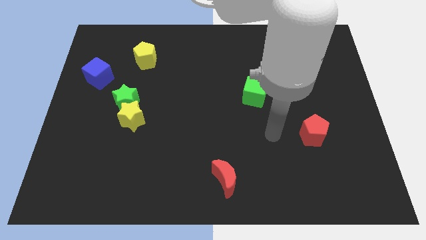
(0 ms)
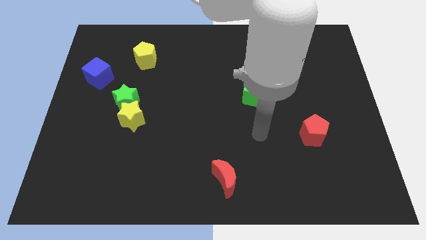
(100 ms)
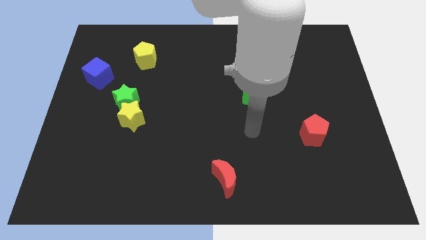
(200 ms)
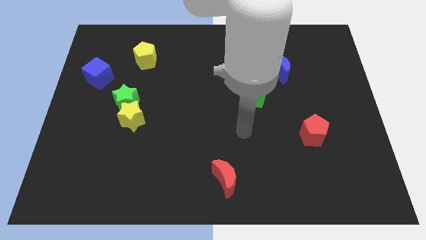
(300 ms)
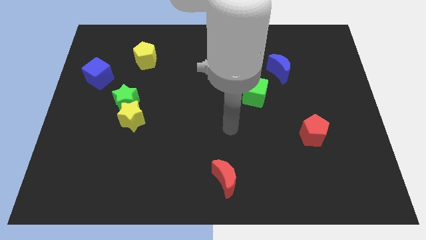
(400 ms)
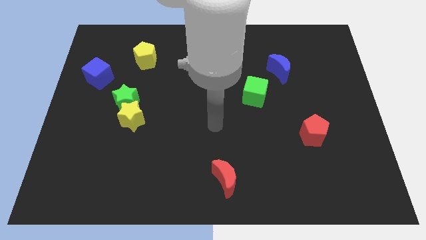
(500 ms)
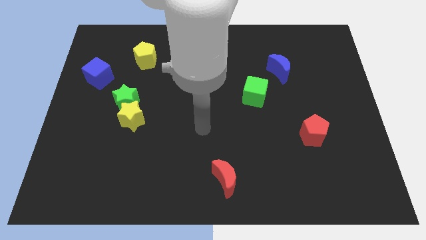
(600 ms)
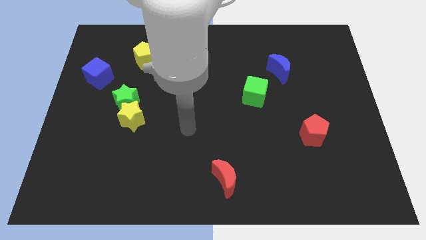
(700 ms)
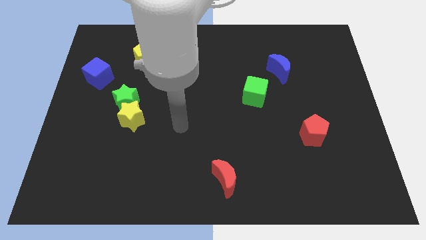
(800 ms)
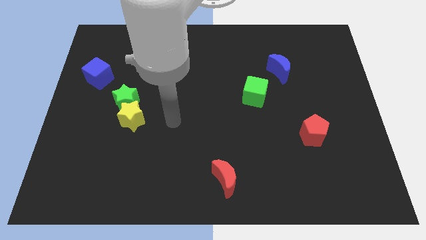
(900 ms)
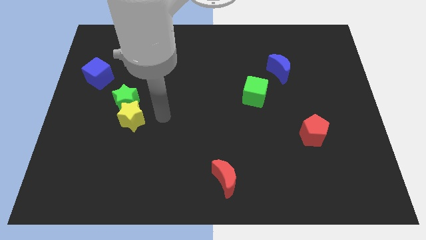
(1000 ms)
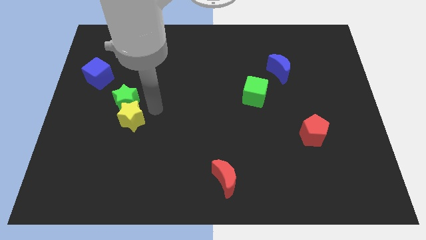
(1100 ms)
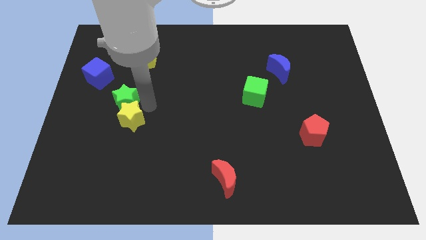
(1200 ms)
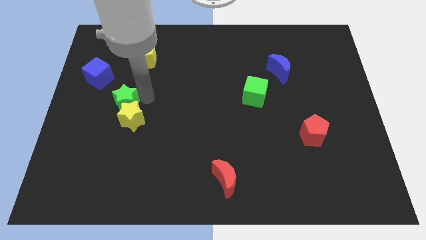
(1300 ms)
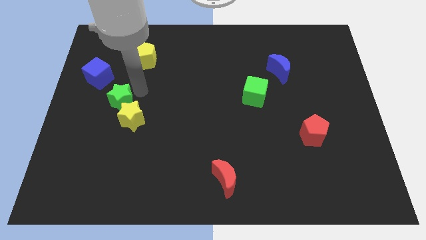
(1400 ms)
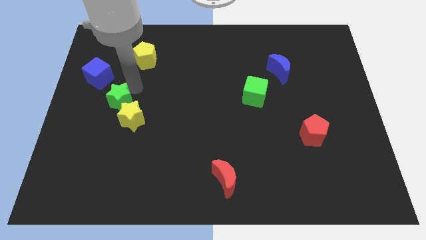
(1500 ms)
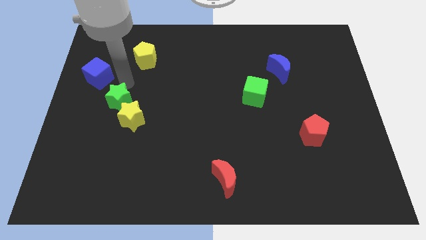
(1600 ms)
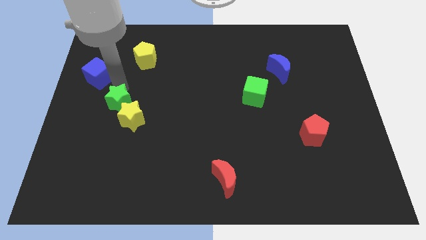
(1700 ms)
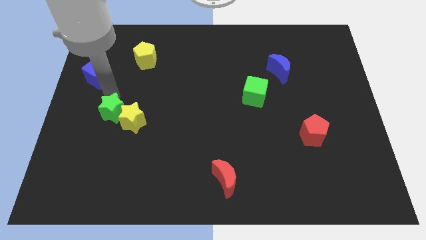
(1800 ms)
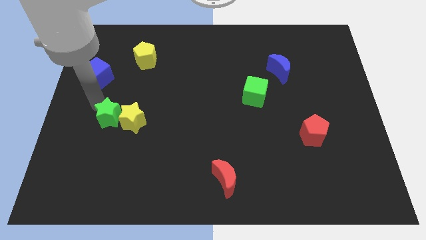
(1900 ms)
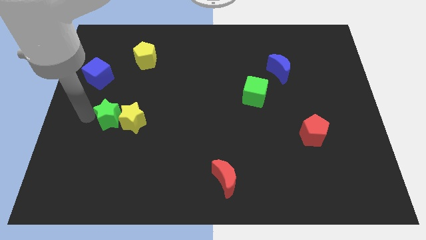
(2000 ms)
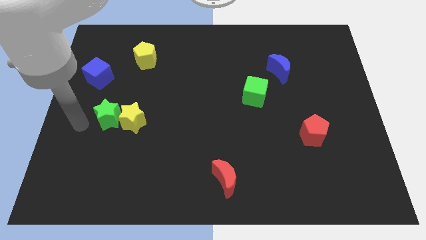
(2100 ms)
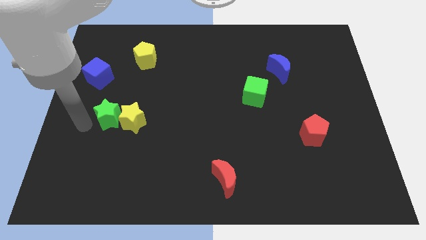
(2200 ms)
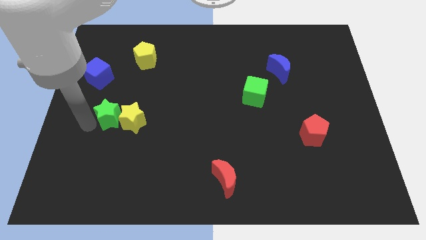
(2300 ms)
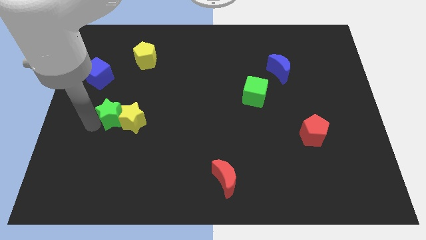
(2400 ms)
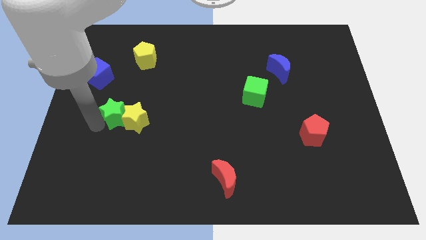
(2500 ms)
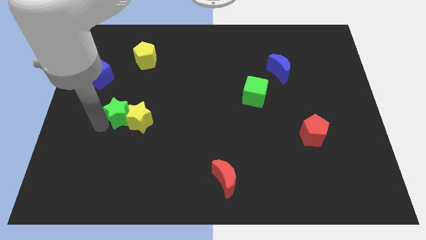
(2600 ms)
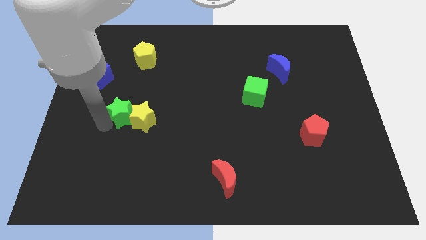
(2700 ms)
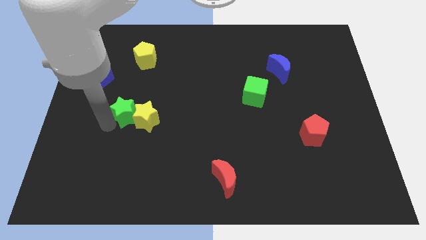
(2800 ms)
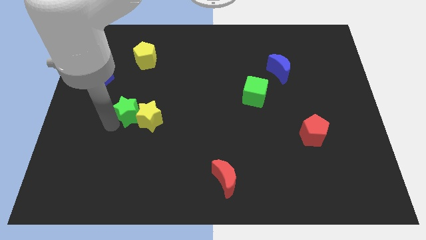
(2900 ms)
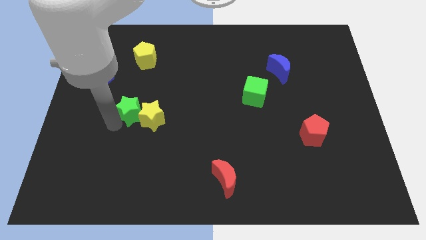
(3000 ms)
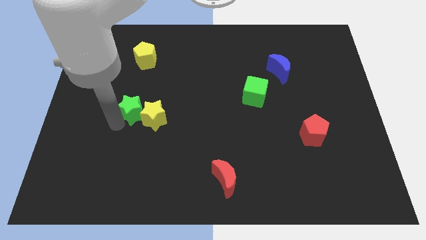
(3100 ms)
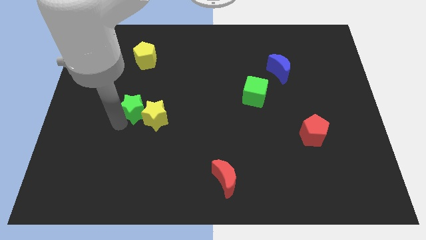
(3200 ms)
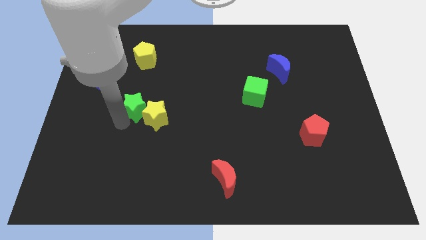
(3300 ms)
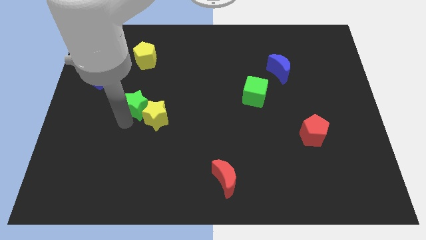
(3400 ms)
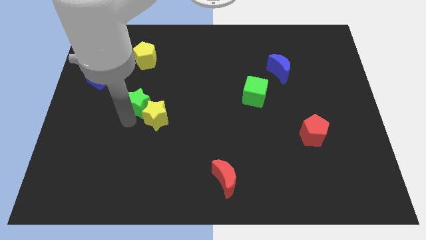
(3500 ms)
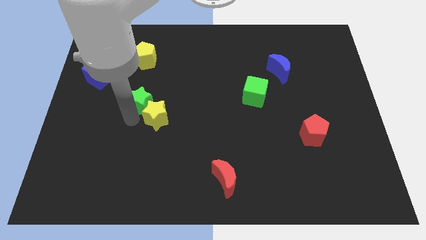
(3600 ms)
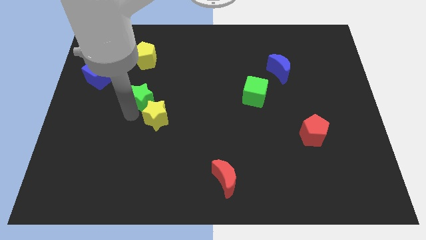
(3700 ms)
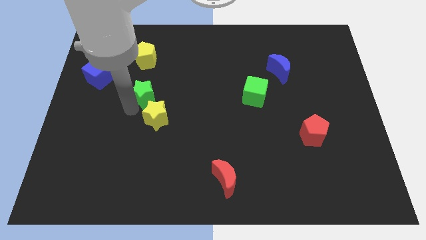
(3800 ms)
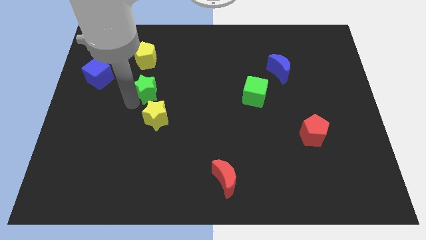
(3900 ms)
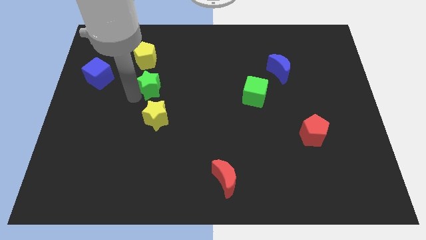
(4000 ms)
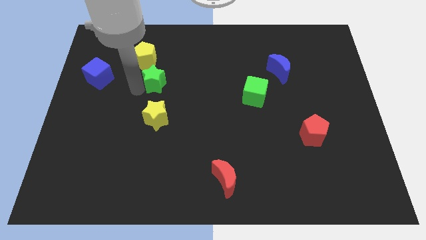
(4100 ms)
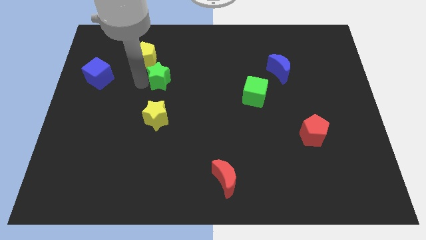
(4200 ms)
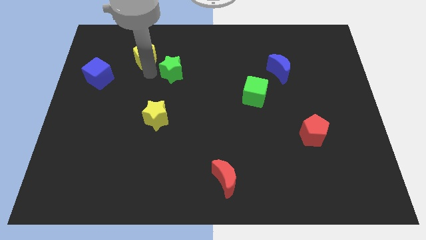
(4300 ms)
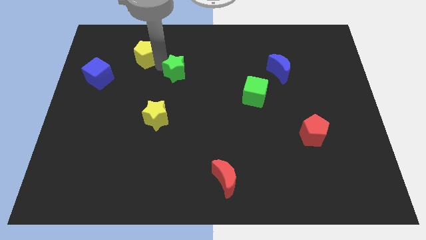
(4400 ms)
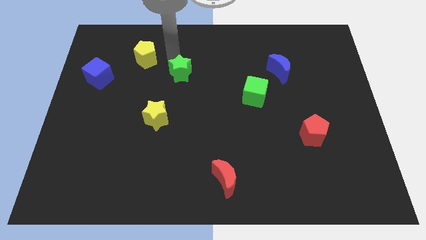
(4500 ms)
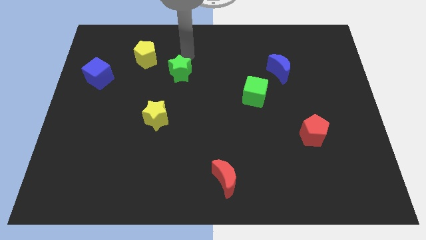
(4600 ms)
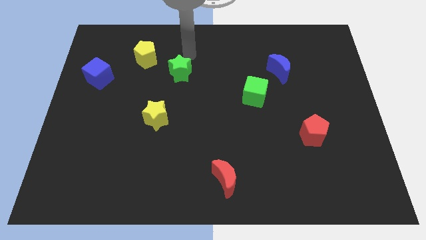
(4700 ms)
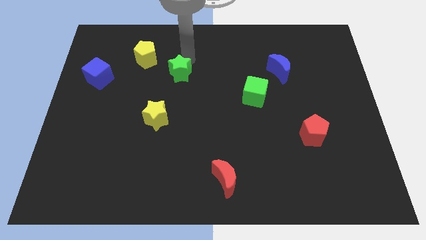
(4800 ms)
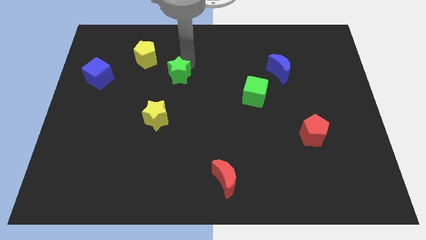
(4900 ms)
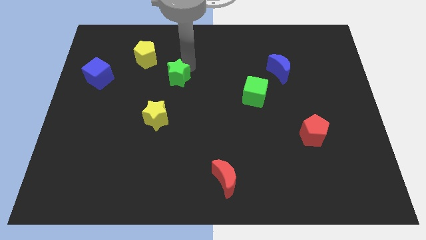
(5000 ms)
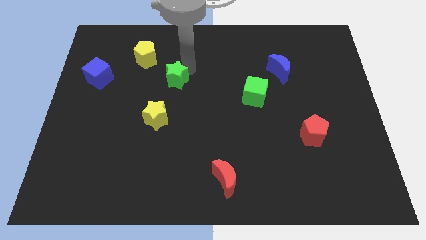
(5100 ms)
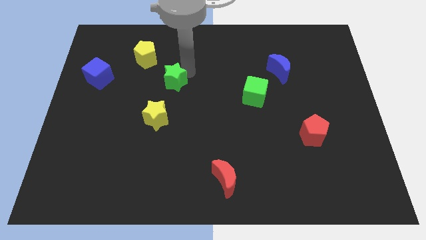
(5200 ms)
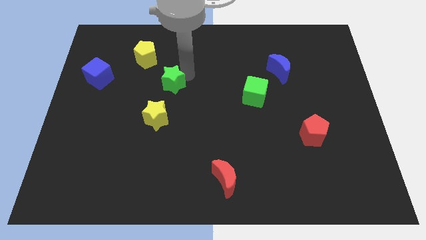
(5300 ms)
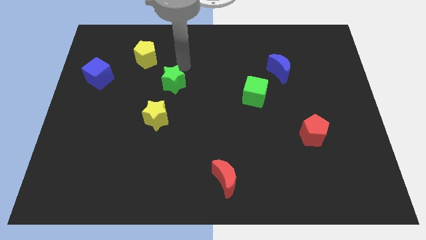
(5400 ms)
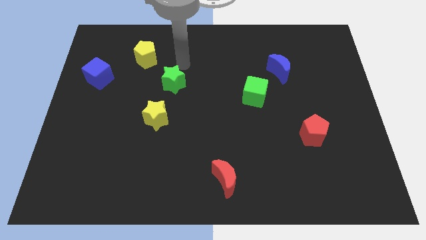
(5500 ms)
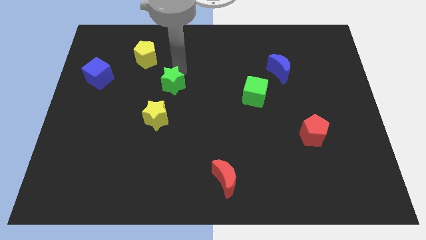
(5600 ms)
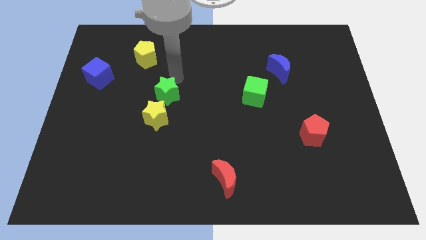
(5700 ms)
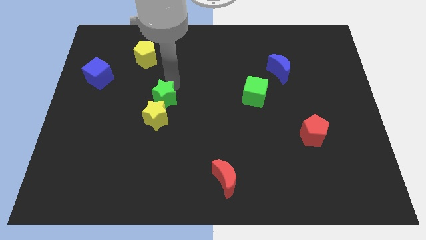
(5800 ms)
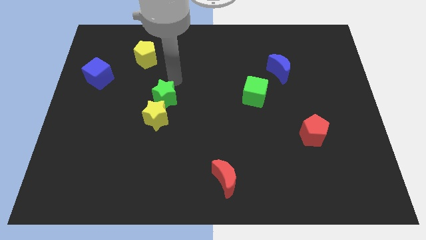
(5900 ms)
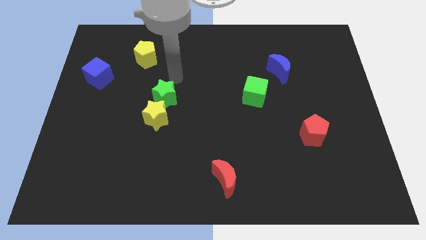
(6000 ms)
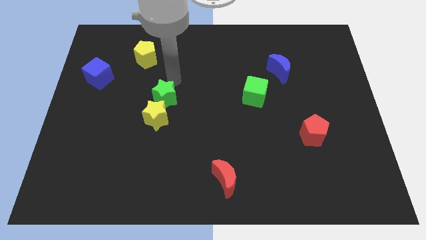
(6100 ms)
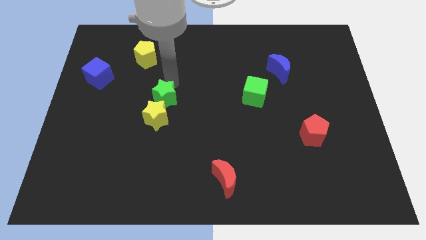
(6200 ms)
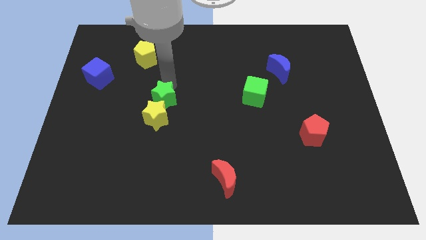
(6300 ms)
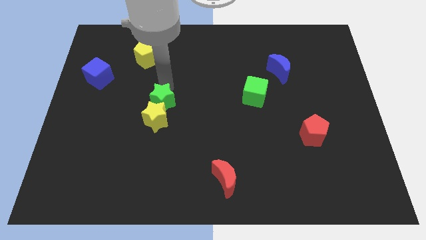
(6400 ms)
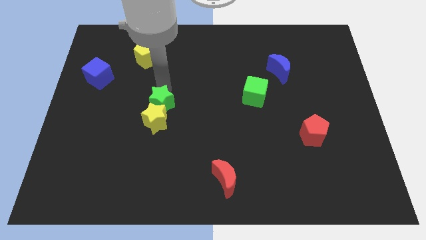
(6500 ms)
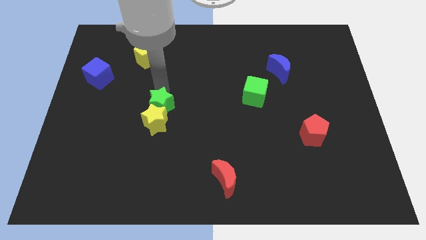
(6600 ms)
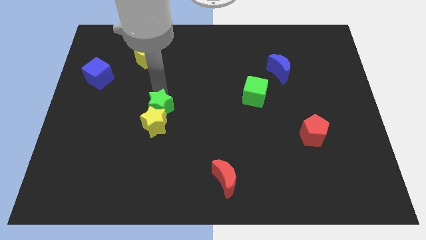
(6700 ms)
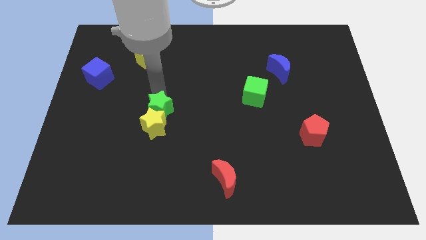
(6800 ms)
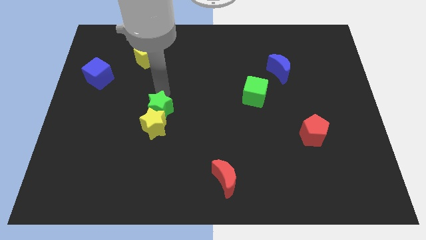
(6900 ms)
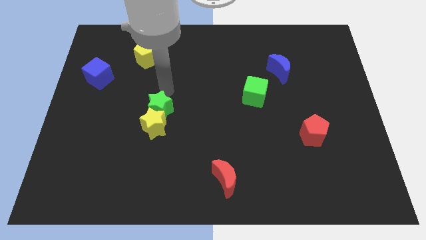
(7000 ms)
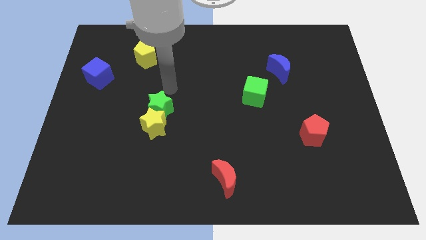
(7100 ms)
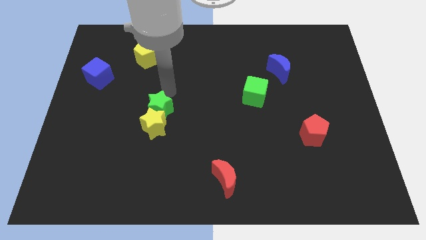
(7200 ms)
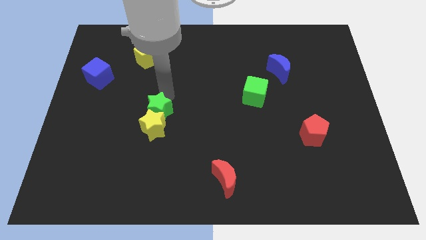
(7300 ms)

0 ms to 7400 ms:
move the green star a little downwards and to the right

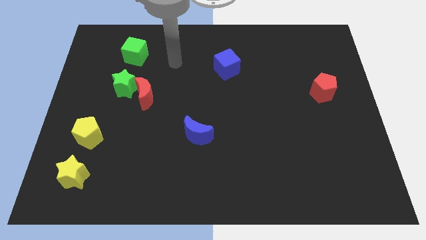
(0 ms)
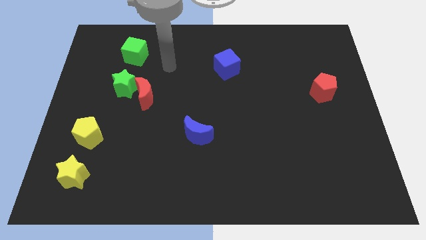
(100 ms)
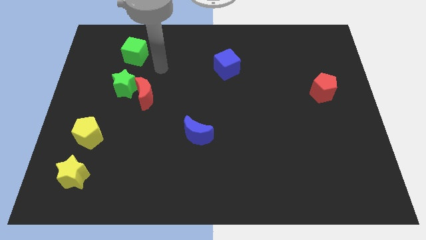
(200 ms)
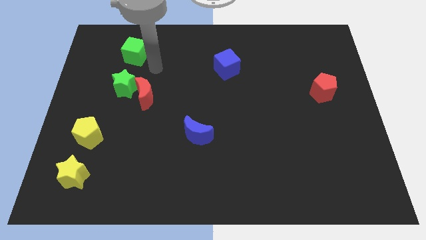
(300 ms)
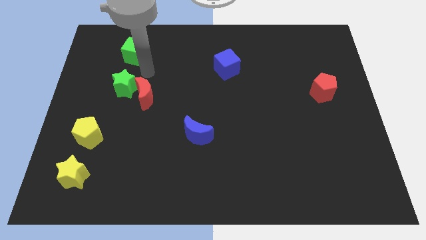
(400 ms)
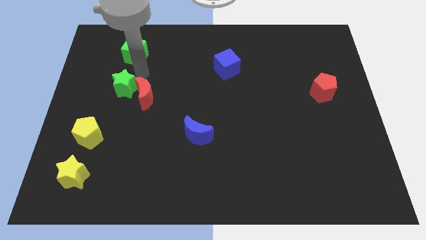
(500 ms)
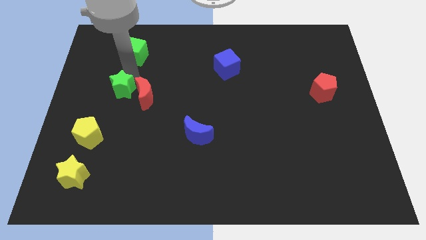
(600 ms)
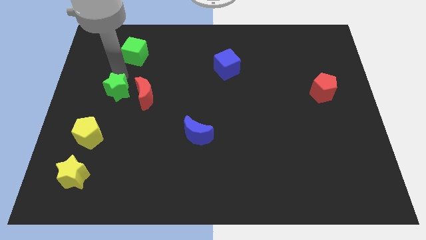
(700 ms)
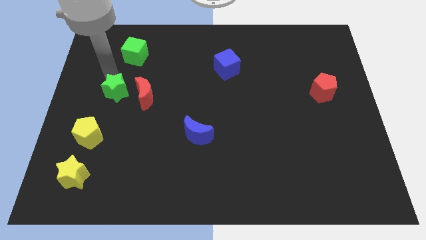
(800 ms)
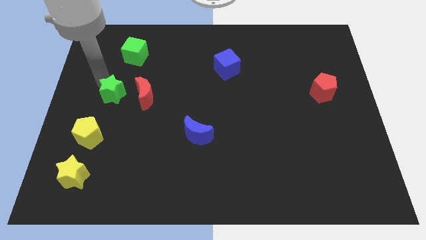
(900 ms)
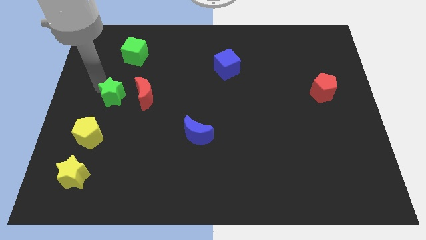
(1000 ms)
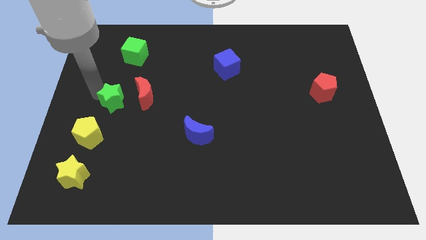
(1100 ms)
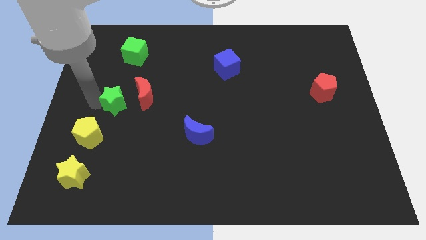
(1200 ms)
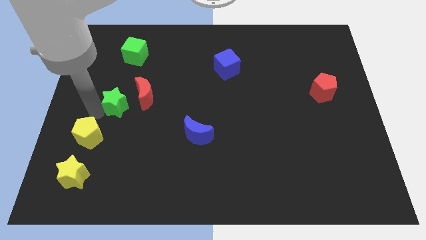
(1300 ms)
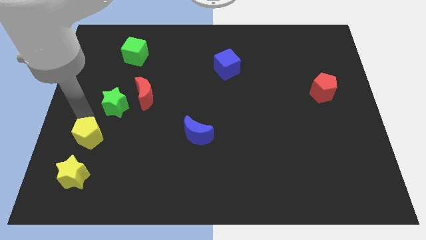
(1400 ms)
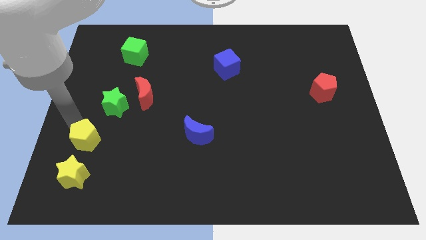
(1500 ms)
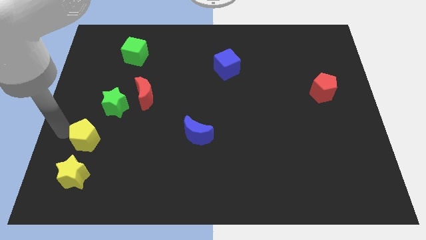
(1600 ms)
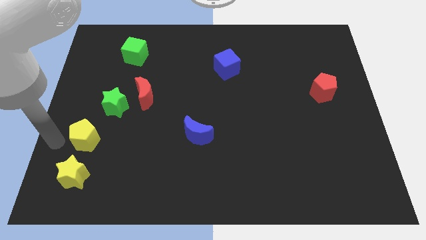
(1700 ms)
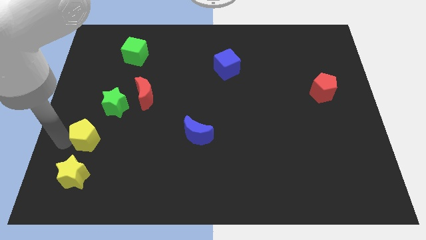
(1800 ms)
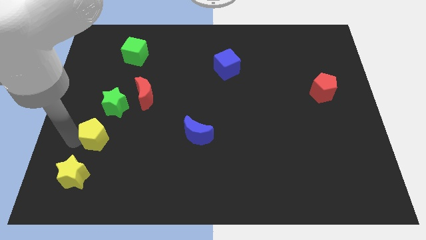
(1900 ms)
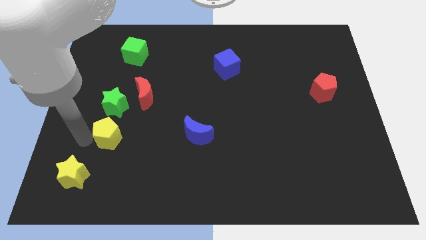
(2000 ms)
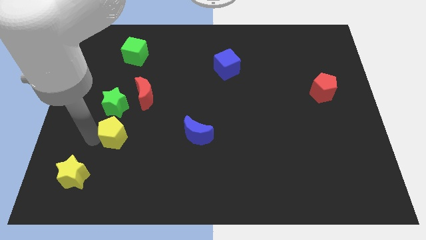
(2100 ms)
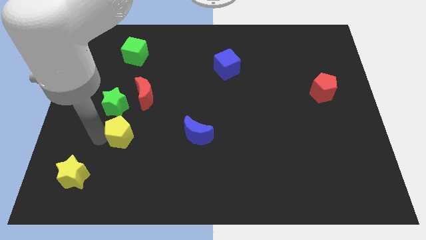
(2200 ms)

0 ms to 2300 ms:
slide the yellow pentagon right a little bit
